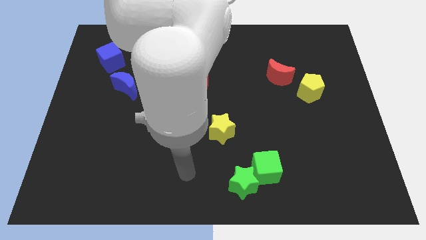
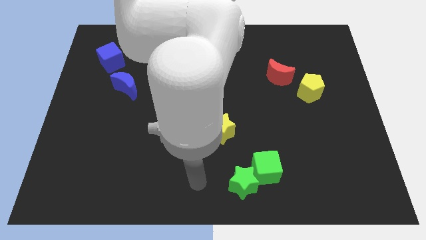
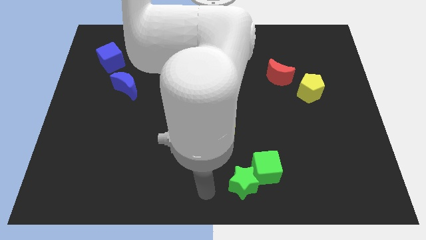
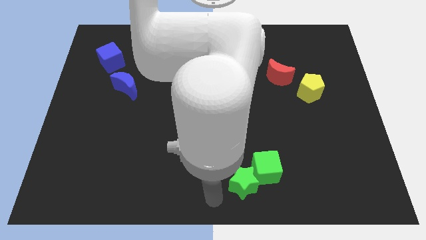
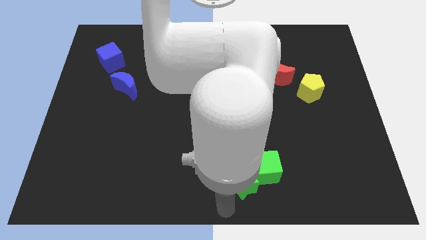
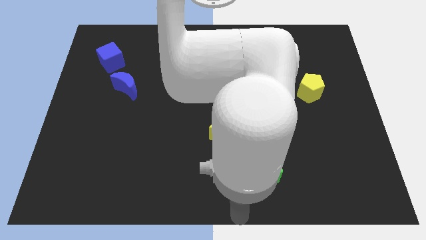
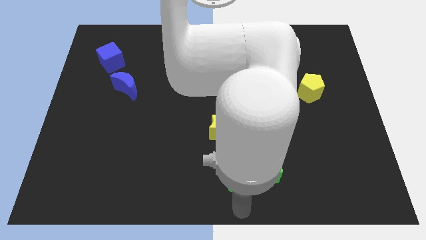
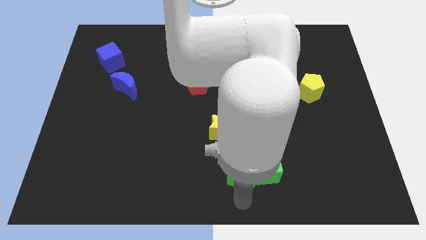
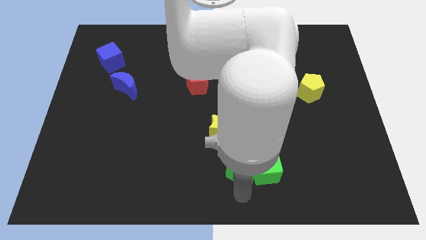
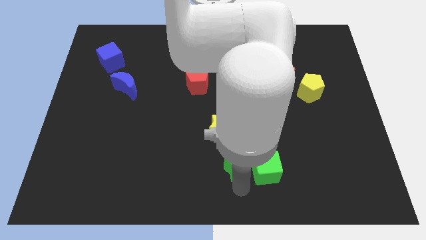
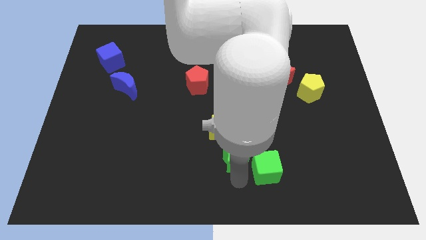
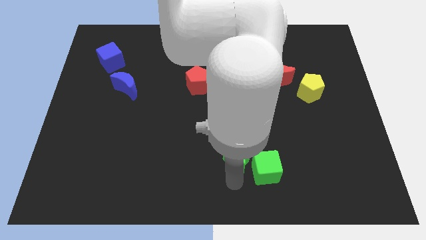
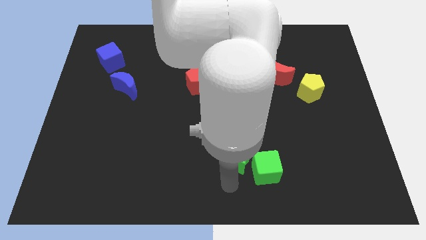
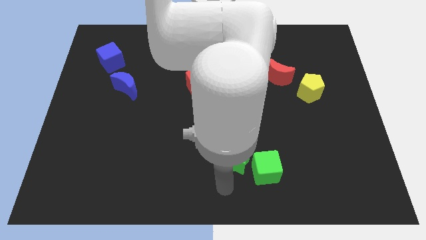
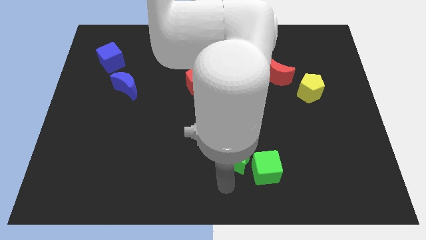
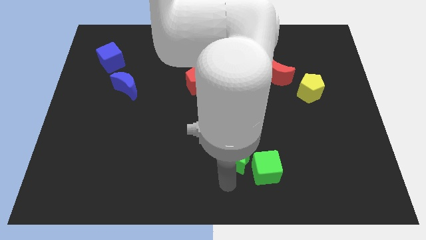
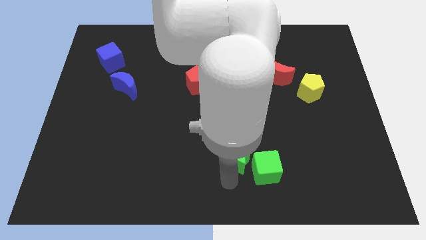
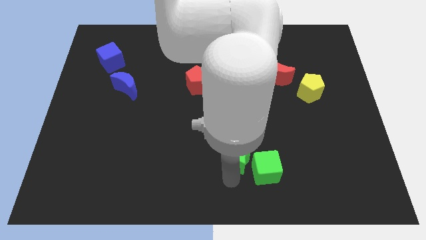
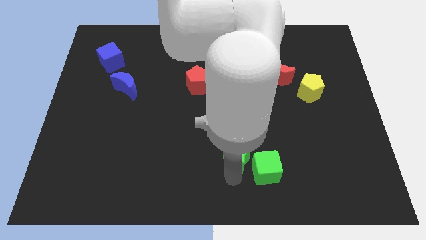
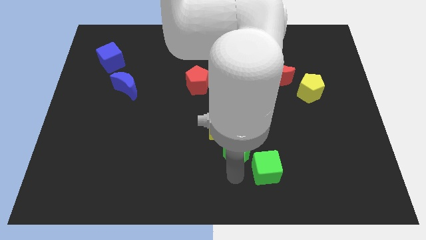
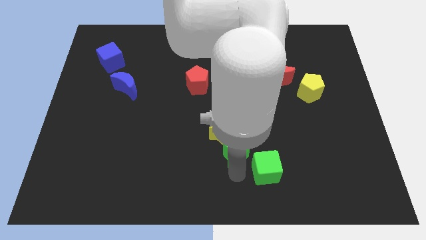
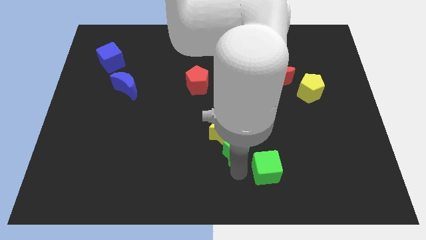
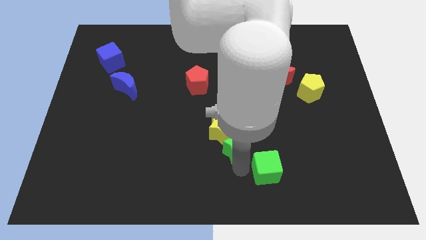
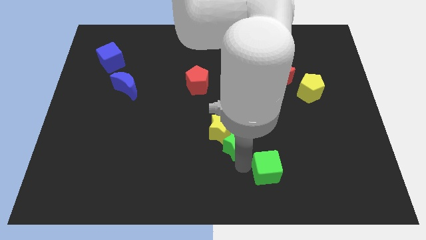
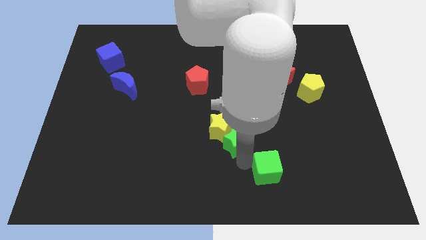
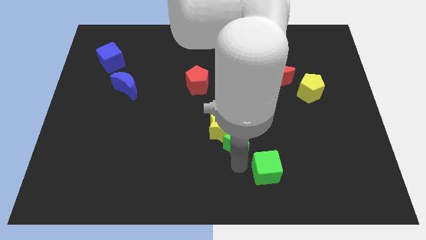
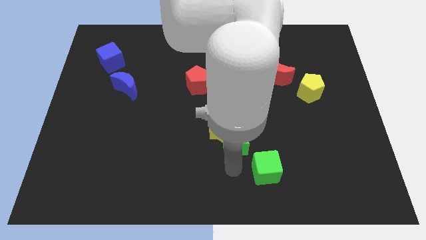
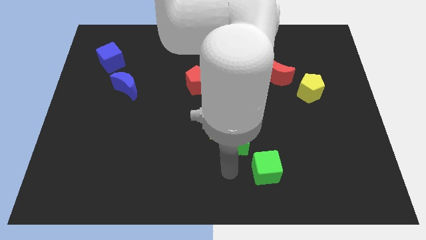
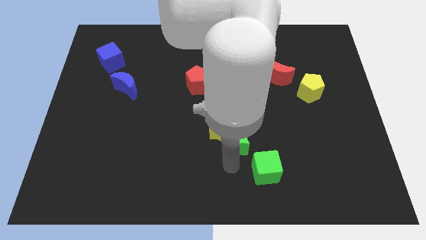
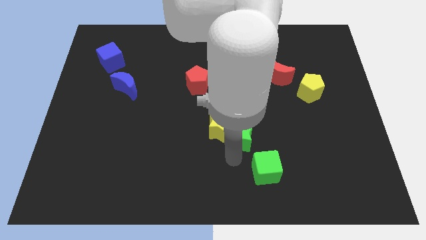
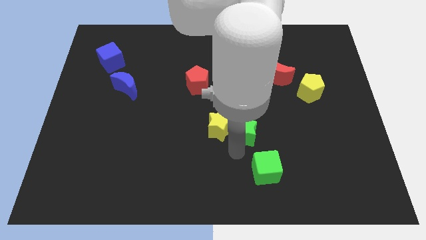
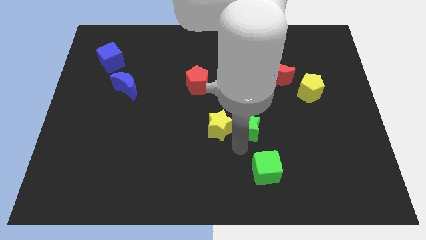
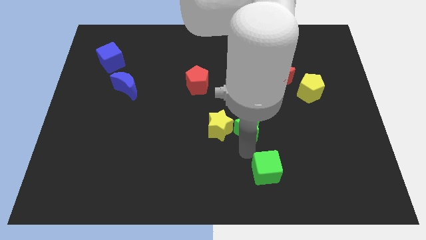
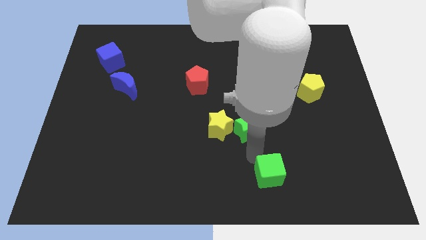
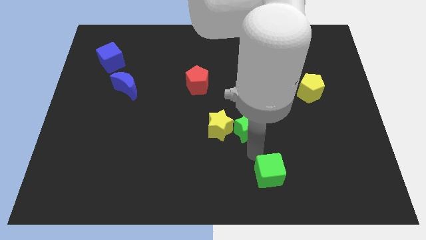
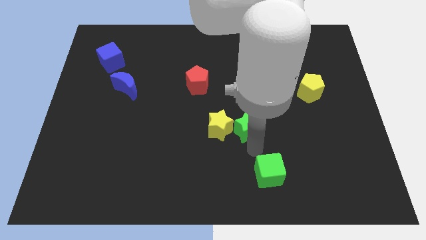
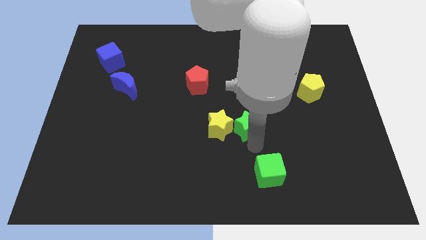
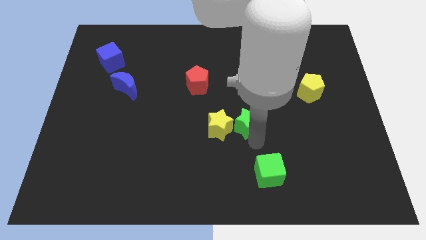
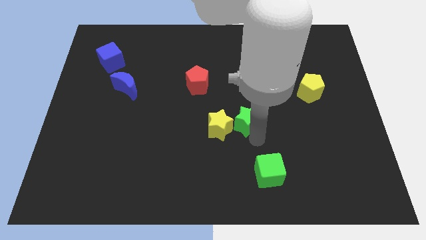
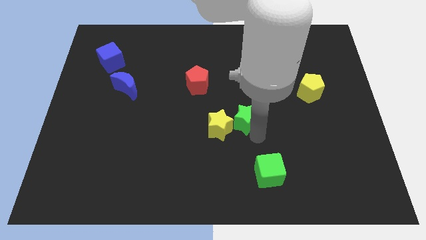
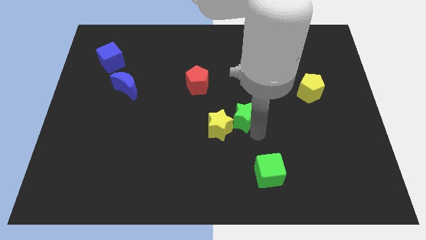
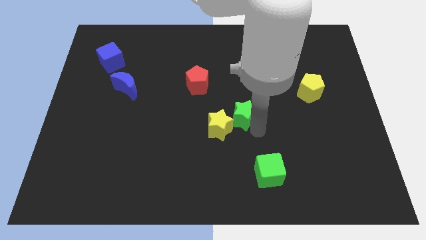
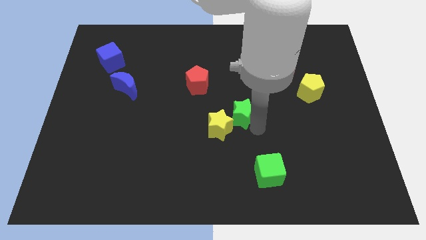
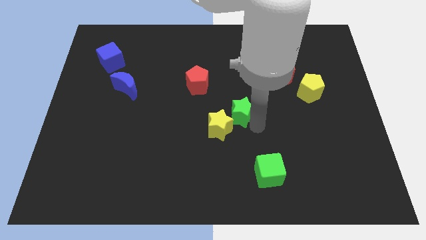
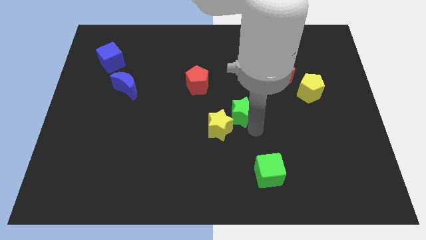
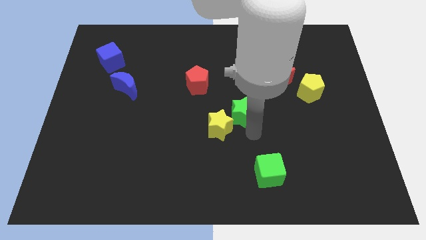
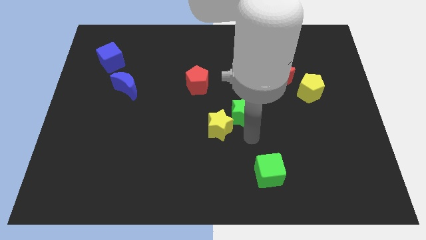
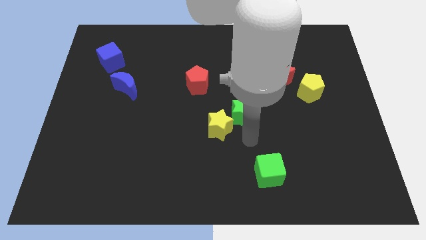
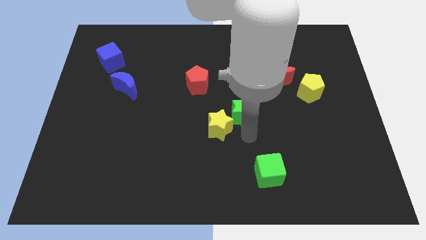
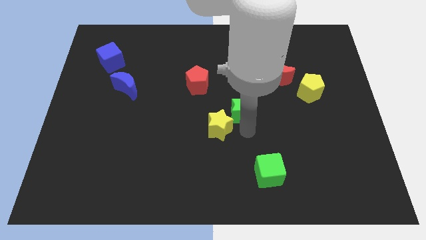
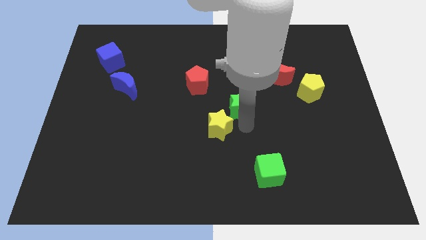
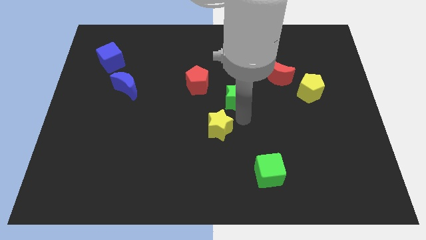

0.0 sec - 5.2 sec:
slide the green star up

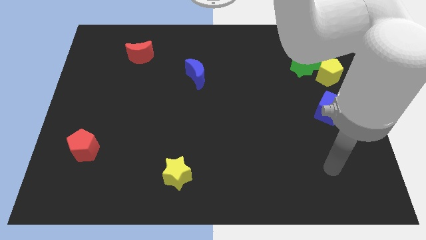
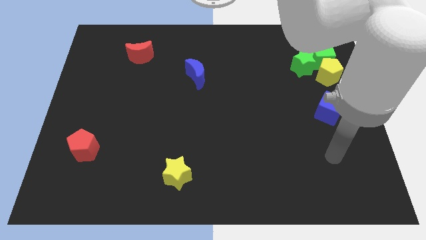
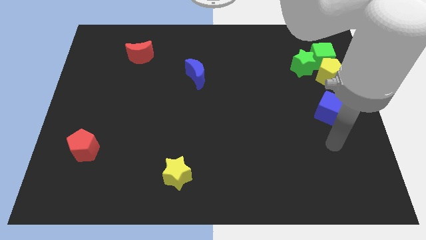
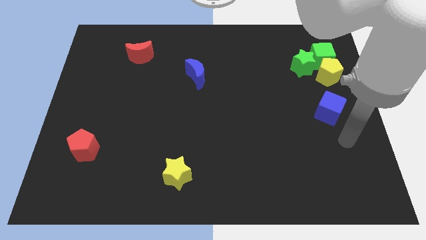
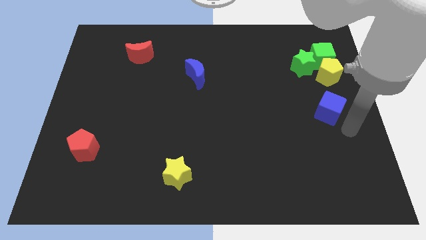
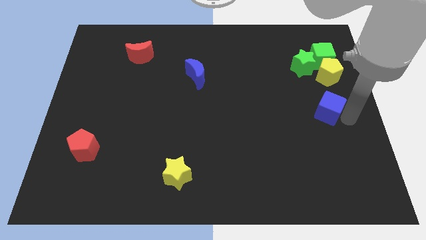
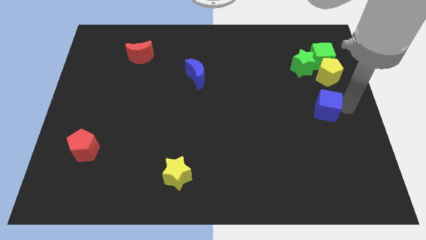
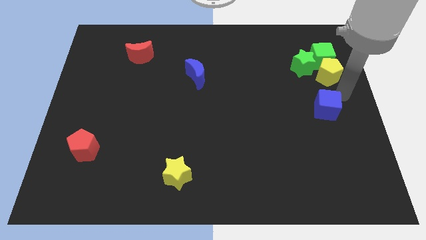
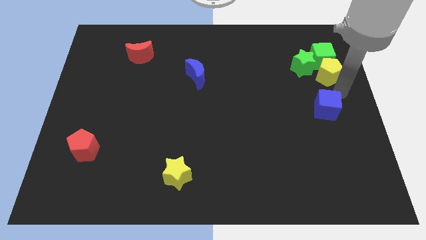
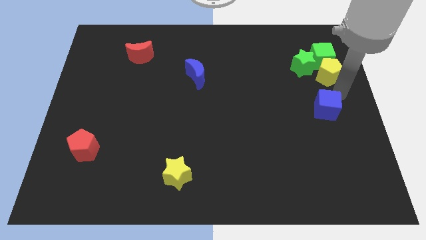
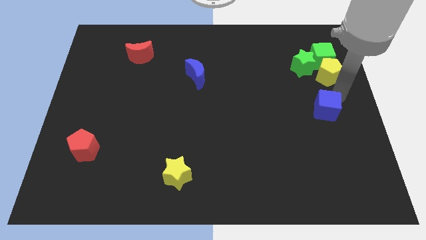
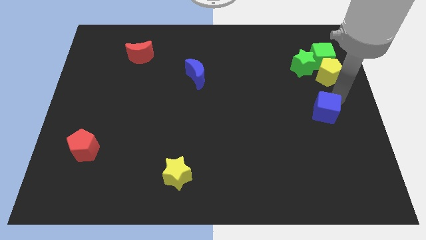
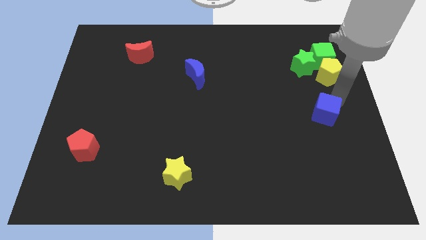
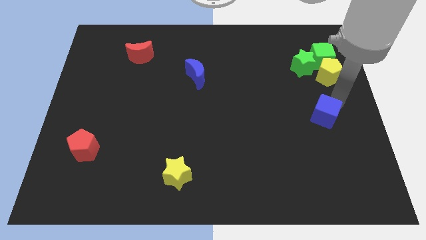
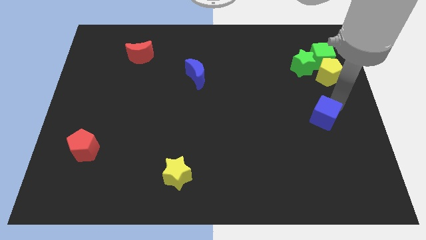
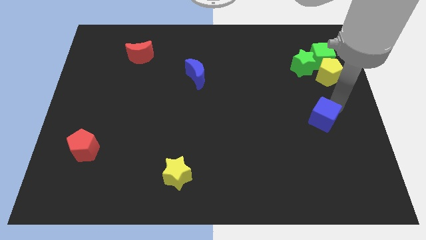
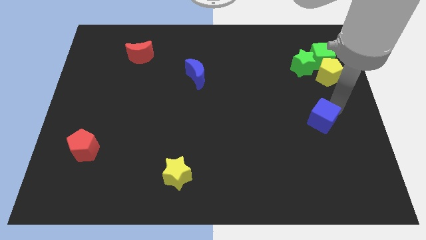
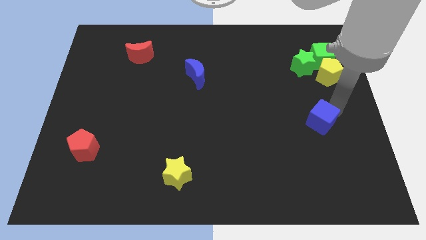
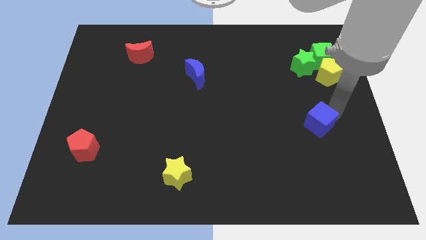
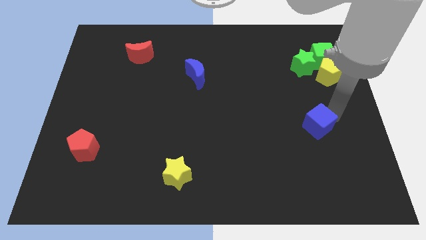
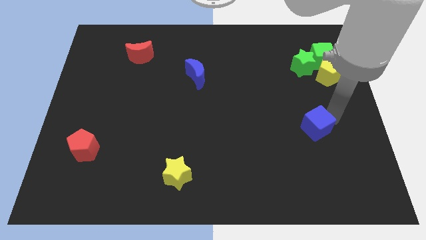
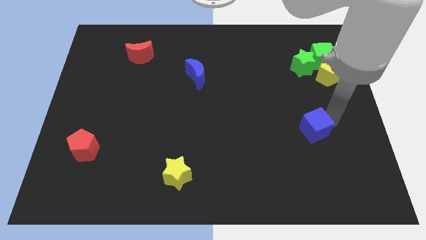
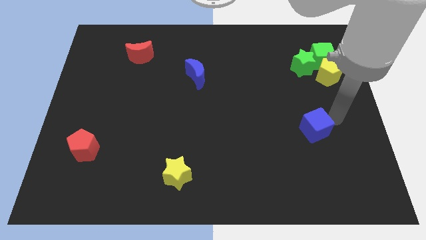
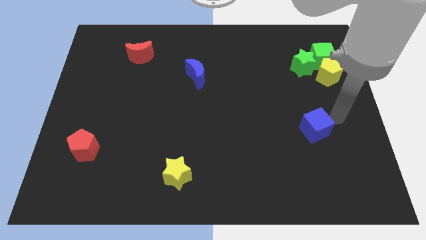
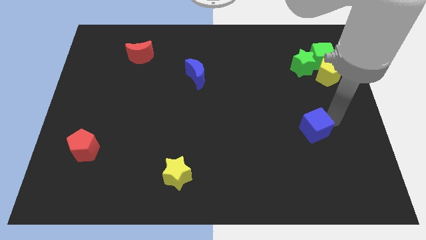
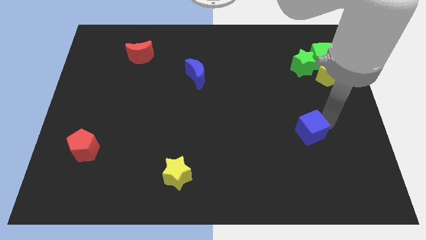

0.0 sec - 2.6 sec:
push the blue cube slightly downwards and to the left

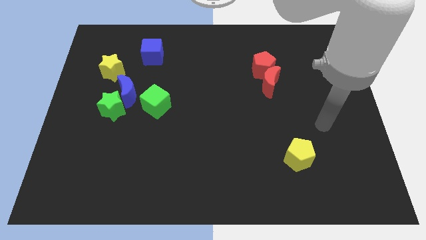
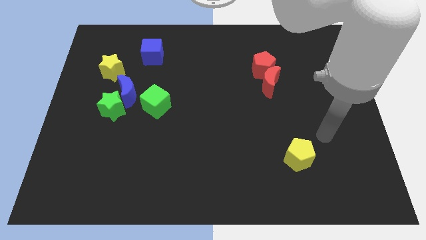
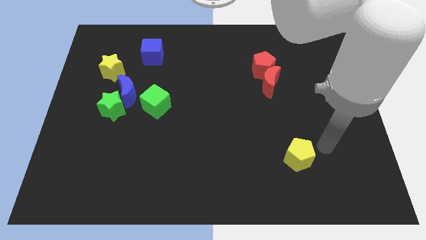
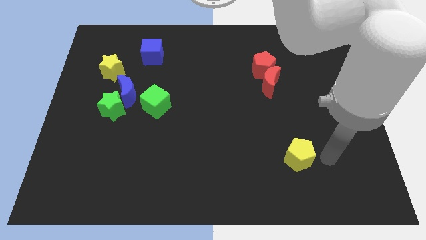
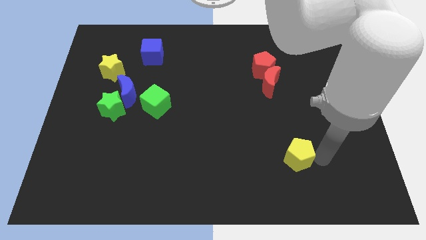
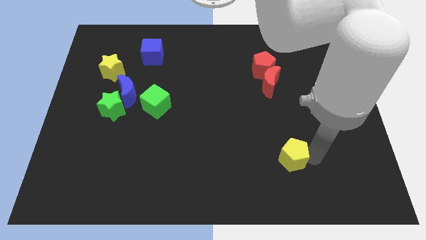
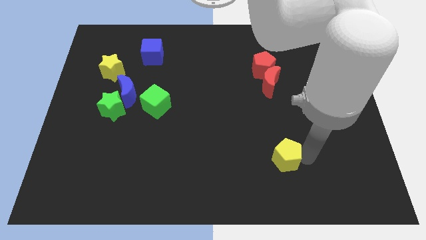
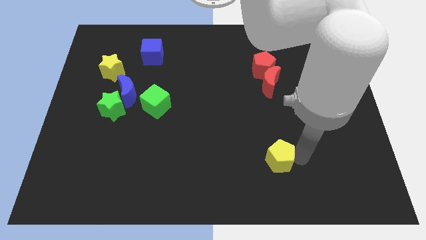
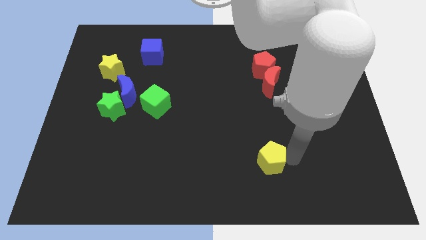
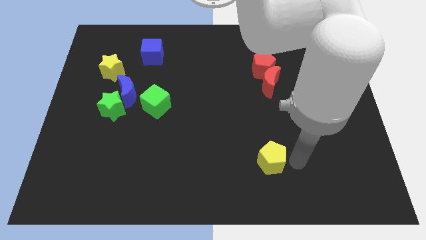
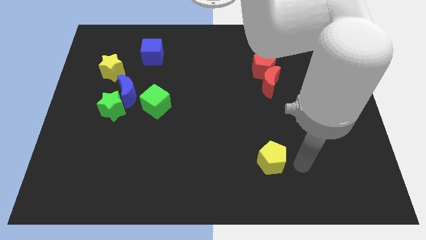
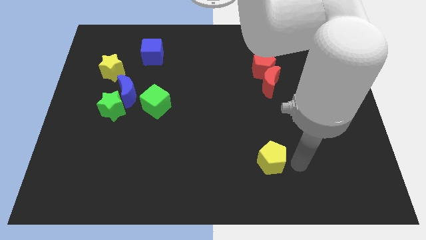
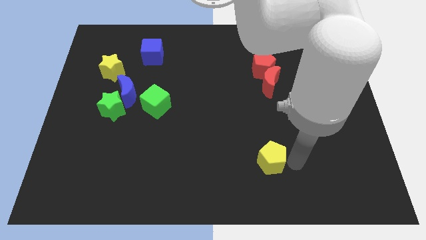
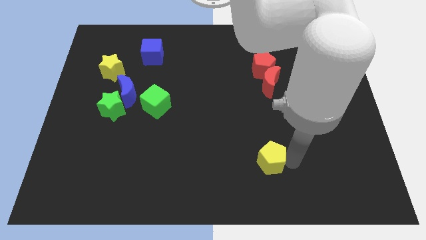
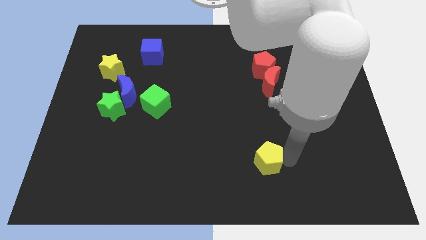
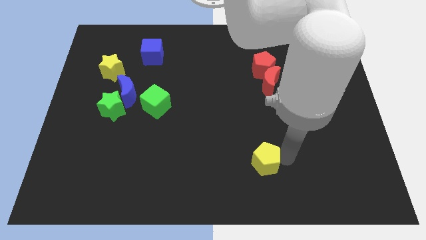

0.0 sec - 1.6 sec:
push the yellow pentagon slightly left
